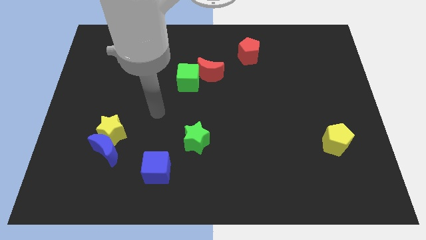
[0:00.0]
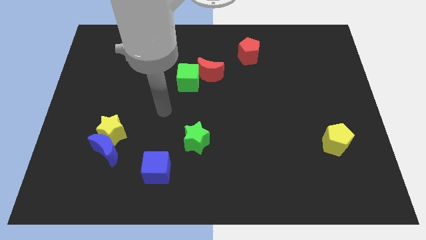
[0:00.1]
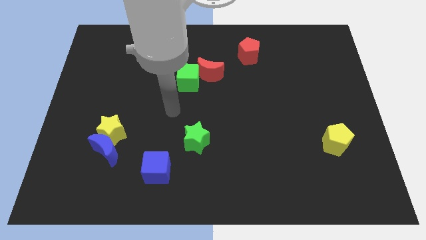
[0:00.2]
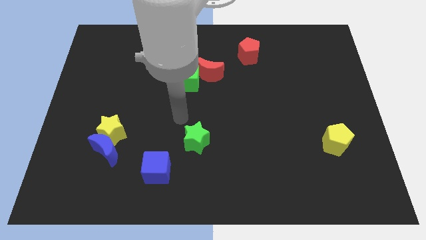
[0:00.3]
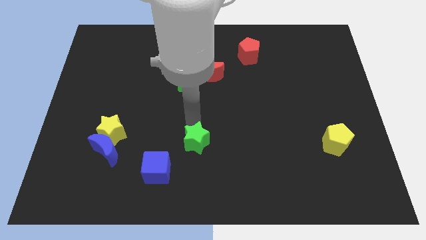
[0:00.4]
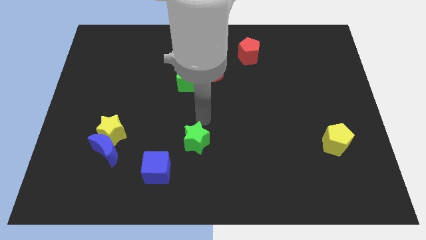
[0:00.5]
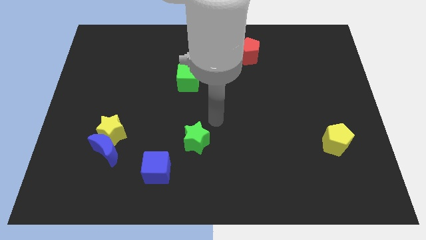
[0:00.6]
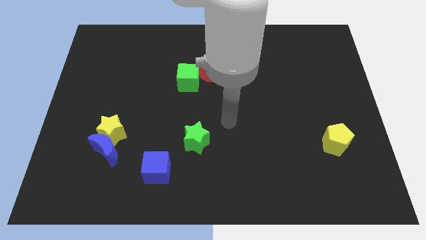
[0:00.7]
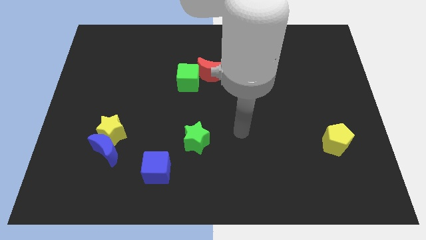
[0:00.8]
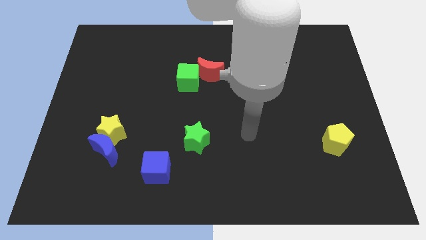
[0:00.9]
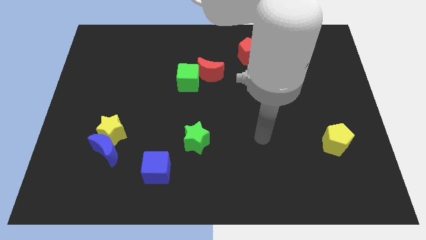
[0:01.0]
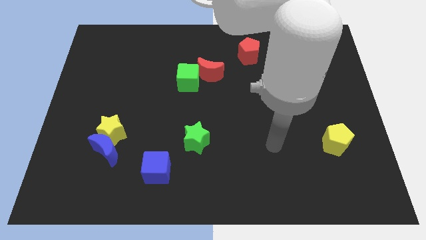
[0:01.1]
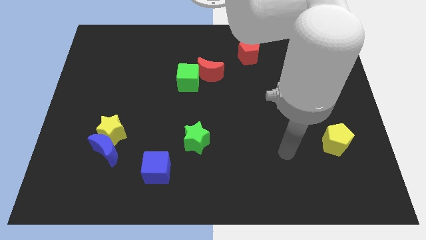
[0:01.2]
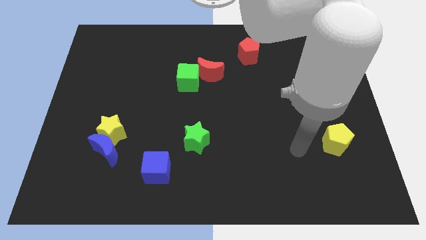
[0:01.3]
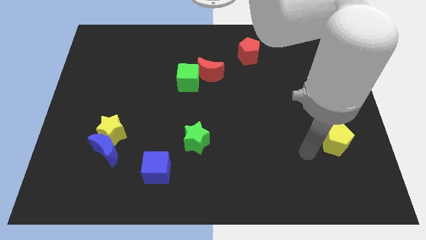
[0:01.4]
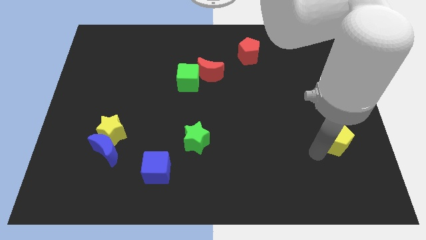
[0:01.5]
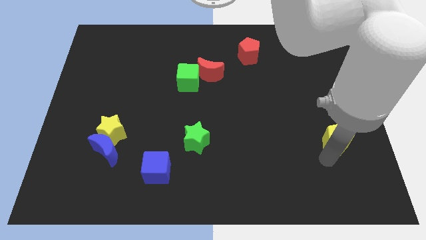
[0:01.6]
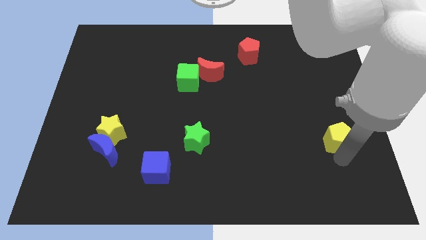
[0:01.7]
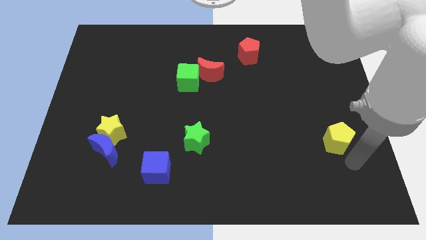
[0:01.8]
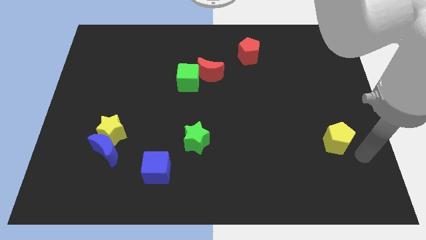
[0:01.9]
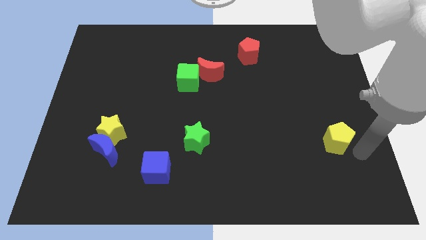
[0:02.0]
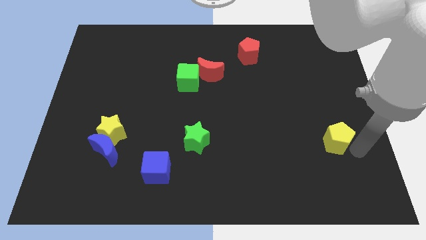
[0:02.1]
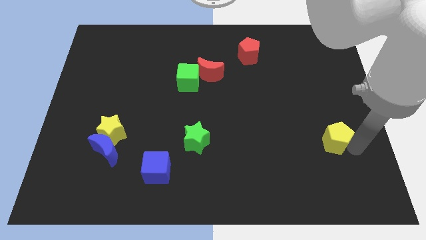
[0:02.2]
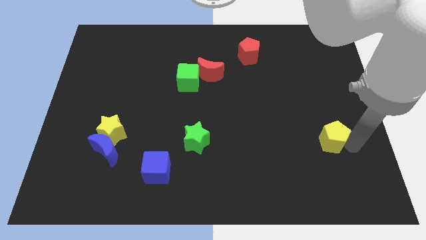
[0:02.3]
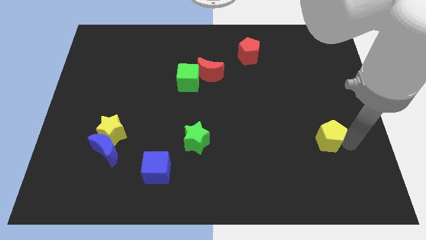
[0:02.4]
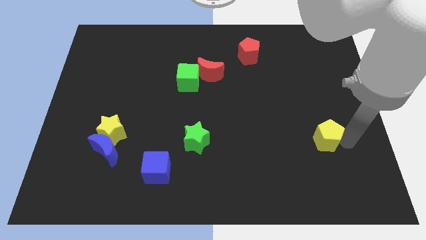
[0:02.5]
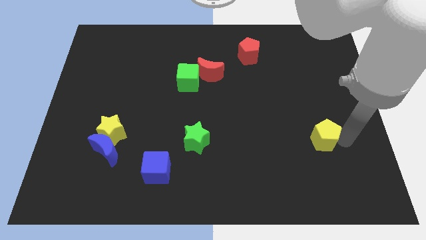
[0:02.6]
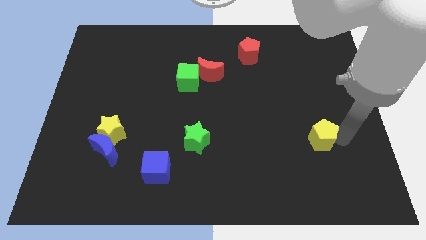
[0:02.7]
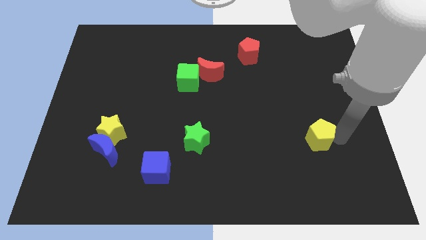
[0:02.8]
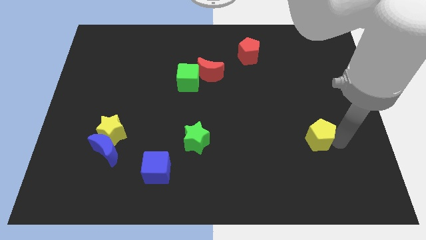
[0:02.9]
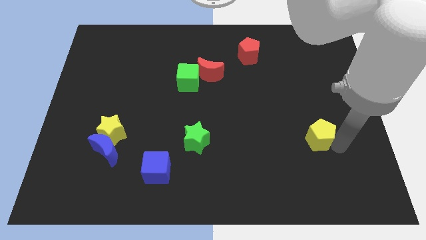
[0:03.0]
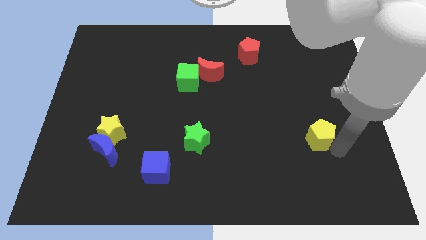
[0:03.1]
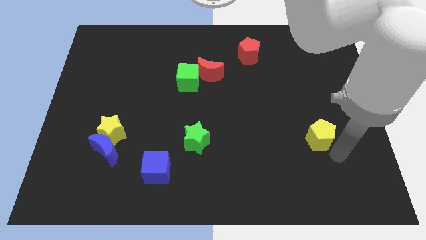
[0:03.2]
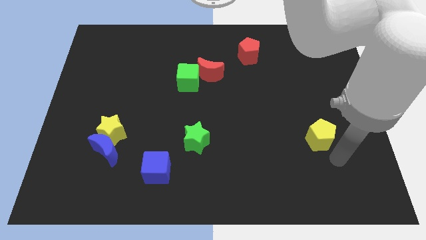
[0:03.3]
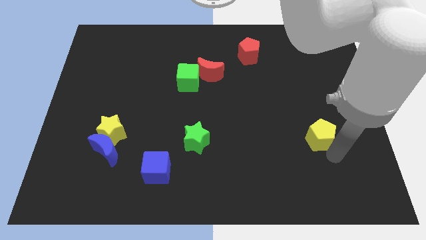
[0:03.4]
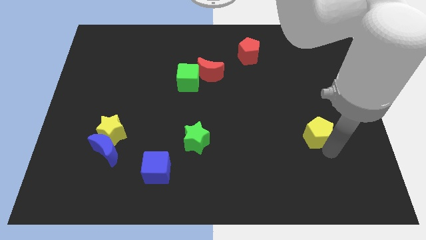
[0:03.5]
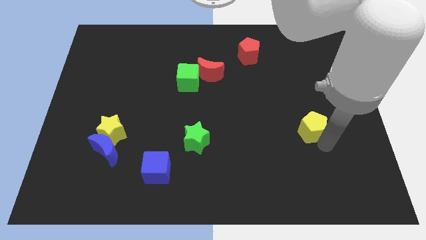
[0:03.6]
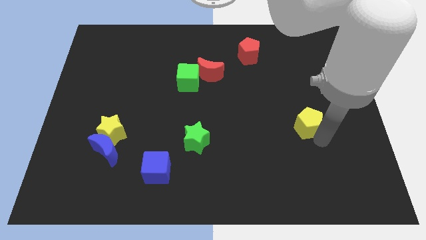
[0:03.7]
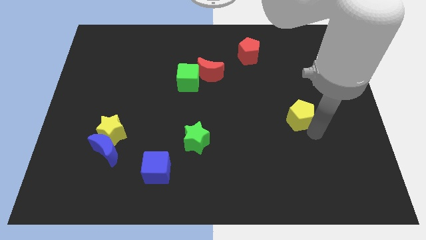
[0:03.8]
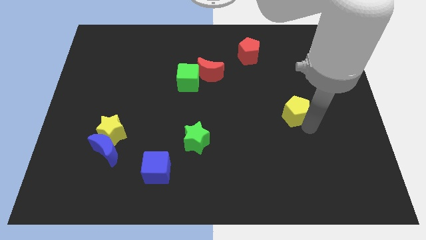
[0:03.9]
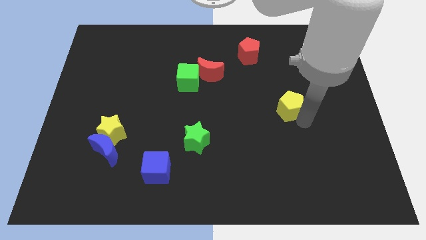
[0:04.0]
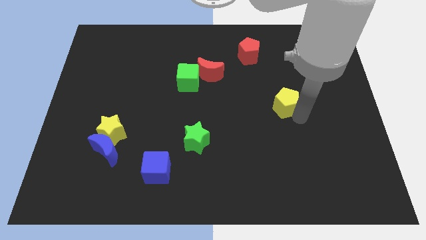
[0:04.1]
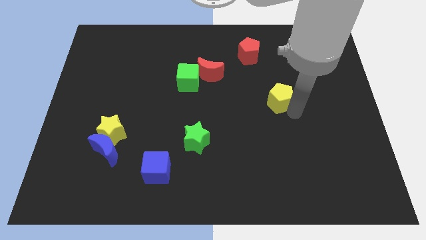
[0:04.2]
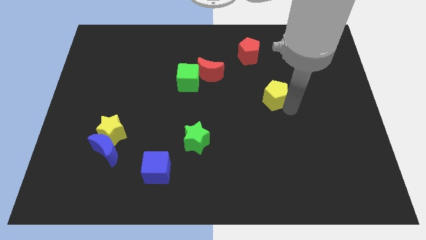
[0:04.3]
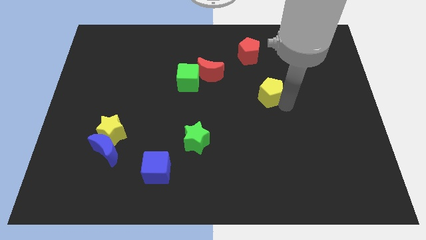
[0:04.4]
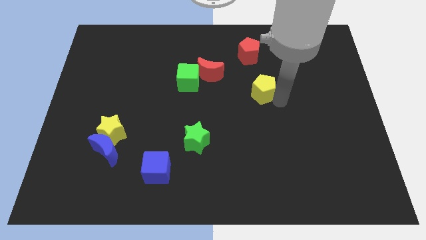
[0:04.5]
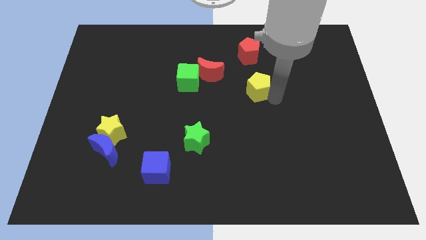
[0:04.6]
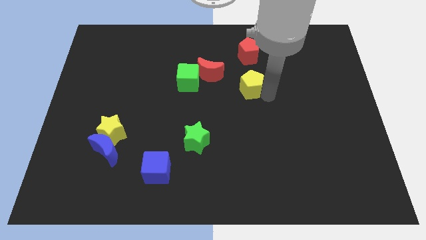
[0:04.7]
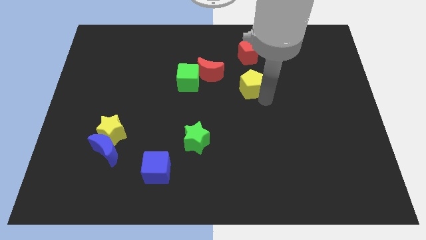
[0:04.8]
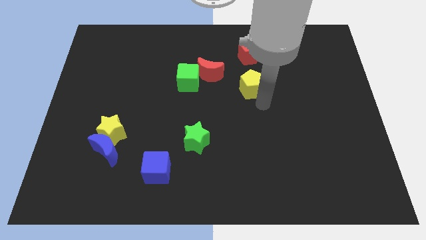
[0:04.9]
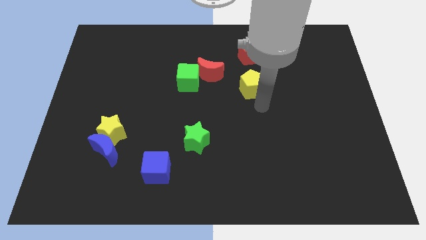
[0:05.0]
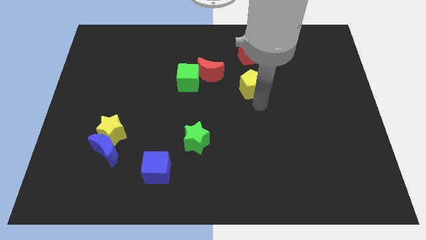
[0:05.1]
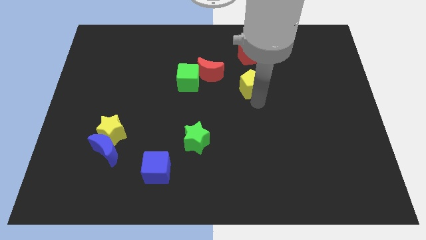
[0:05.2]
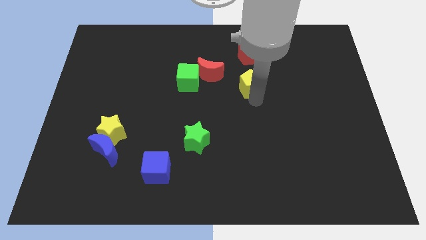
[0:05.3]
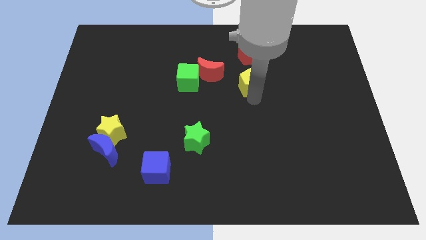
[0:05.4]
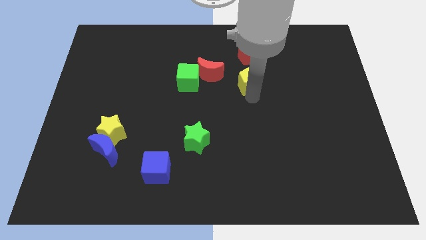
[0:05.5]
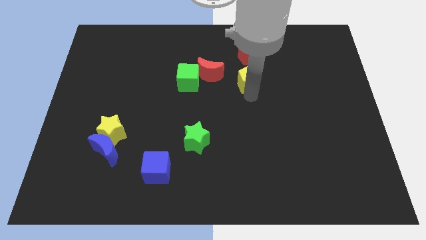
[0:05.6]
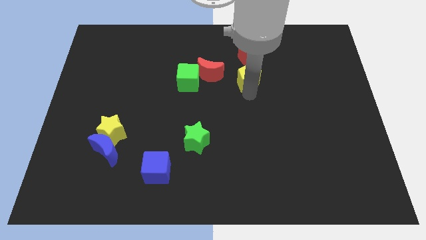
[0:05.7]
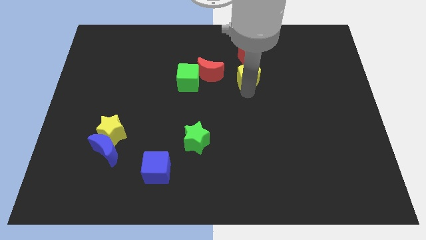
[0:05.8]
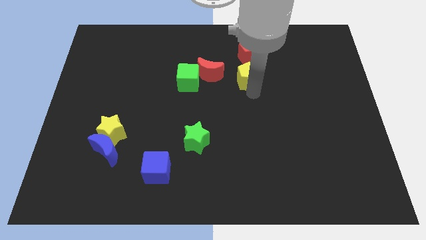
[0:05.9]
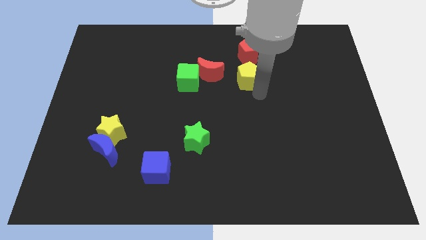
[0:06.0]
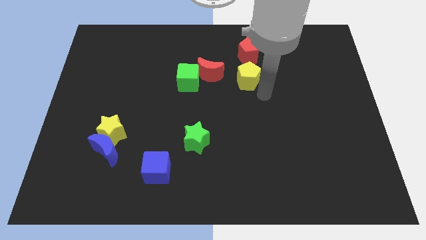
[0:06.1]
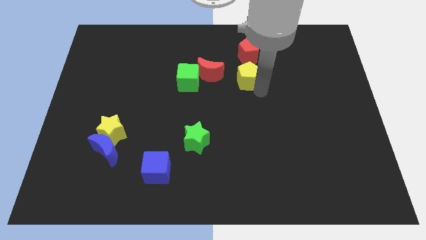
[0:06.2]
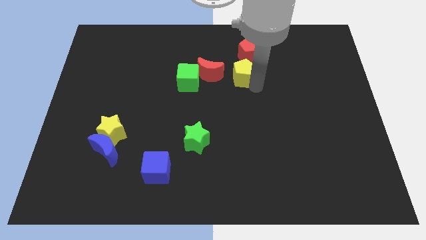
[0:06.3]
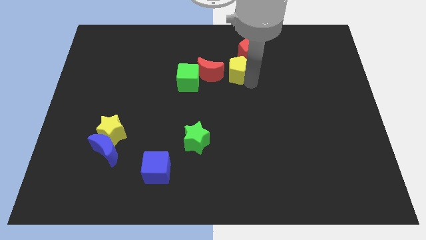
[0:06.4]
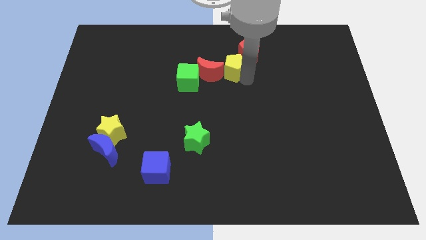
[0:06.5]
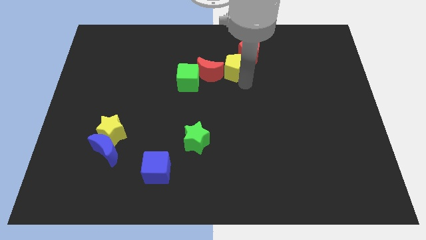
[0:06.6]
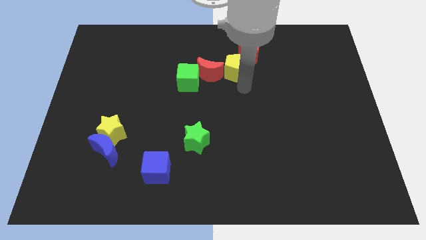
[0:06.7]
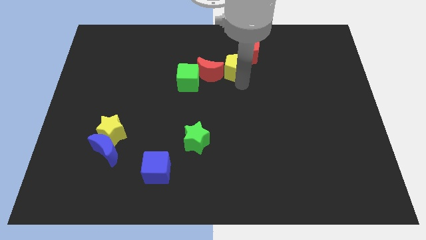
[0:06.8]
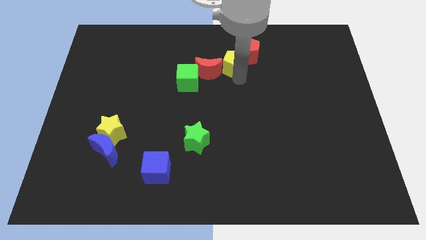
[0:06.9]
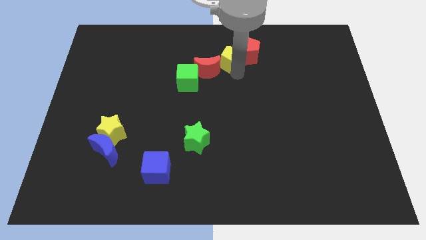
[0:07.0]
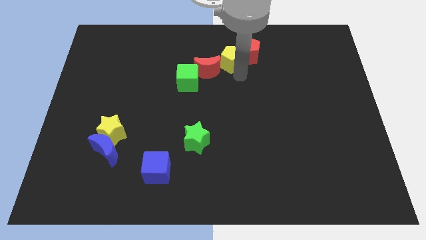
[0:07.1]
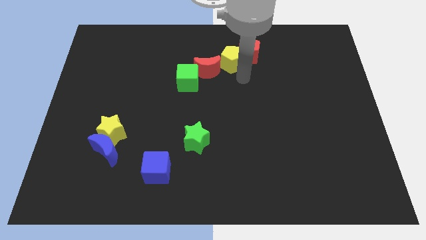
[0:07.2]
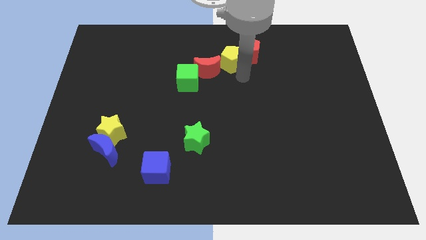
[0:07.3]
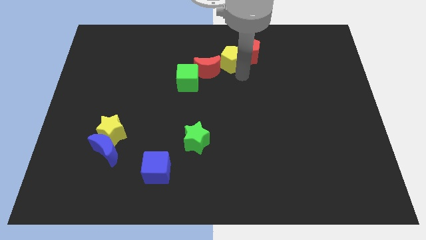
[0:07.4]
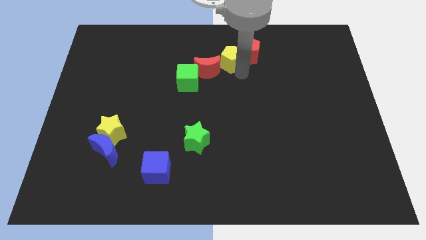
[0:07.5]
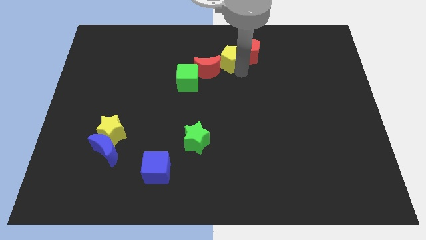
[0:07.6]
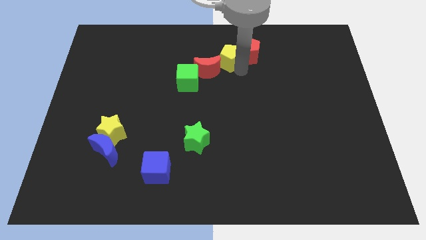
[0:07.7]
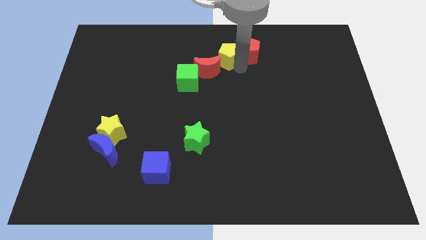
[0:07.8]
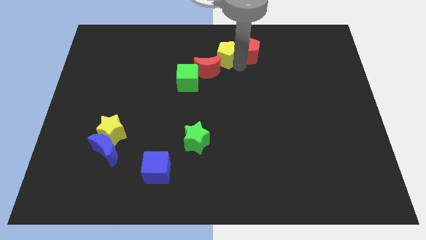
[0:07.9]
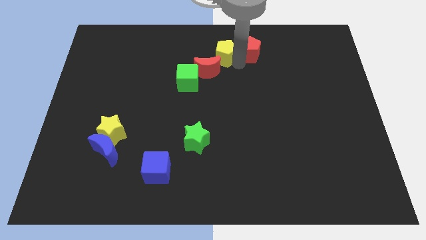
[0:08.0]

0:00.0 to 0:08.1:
push the yellow pentagon to the top side
